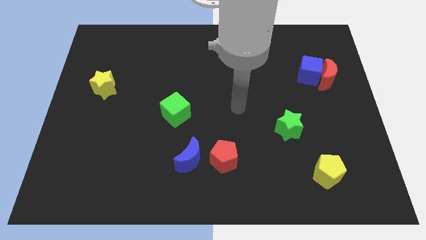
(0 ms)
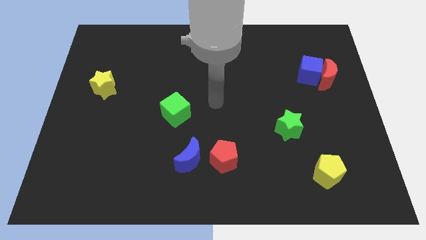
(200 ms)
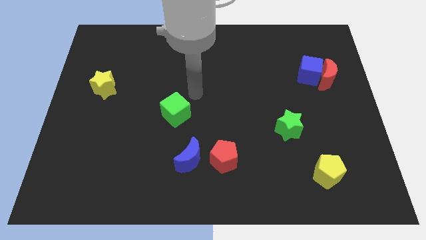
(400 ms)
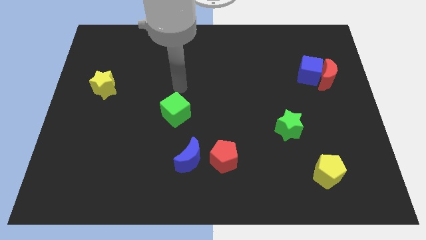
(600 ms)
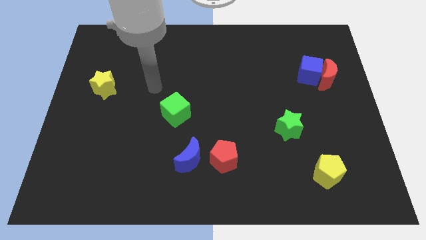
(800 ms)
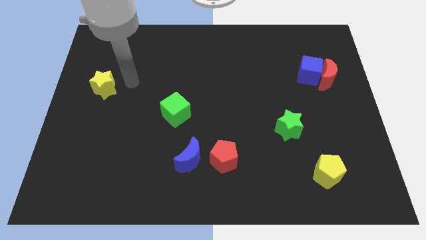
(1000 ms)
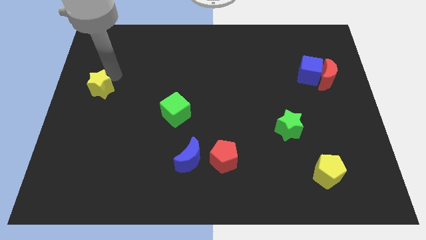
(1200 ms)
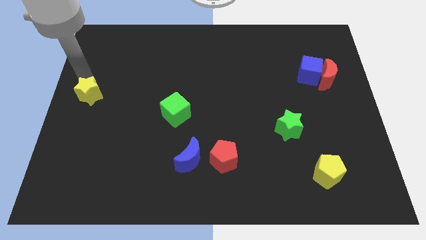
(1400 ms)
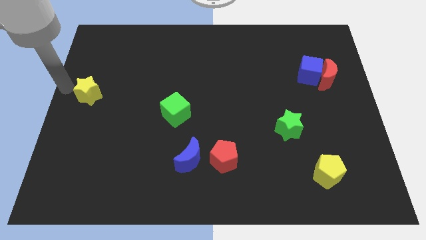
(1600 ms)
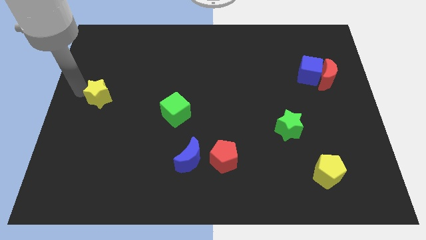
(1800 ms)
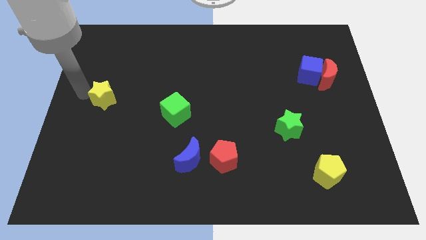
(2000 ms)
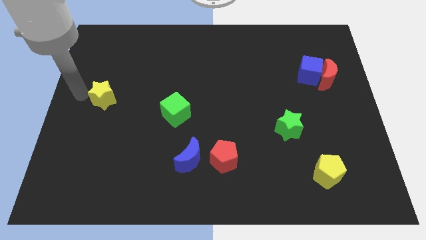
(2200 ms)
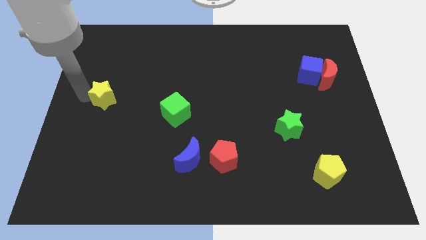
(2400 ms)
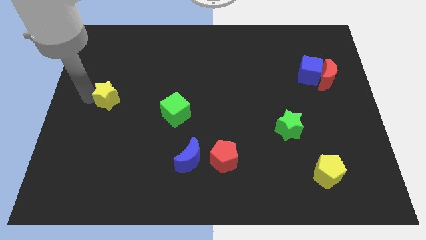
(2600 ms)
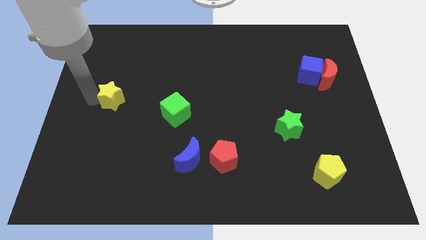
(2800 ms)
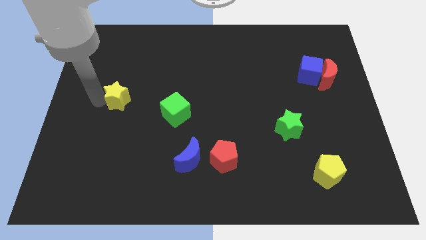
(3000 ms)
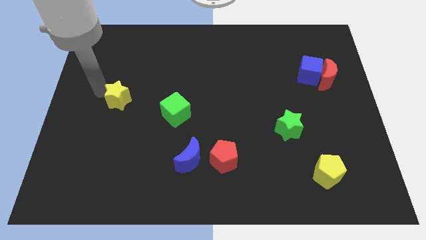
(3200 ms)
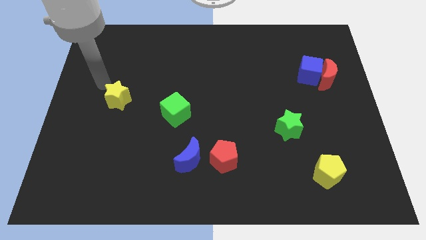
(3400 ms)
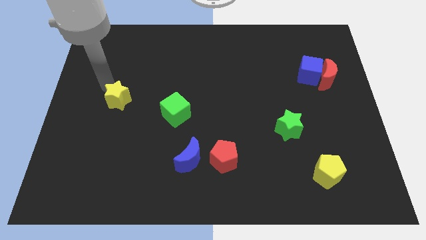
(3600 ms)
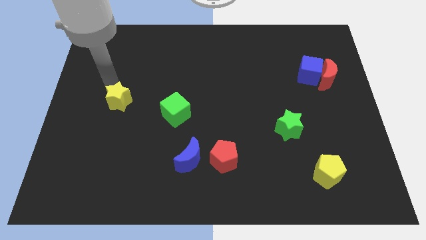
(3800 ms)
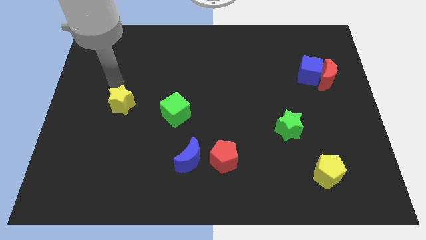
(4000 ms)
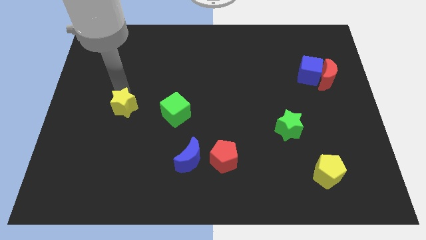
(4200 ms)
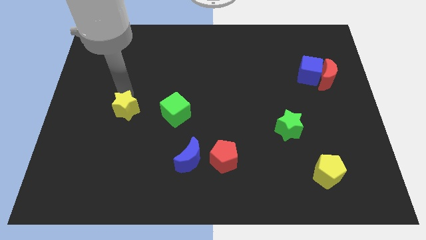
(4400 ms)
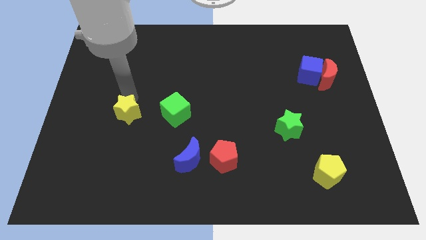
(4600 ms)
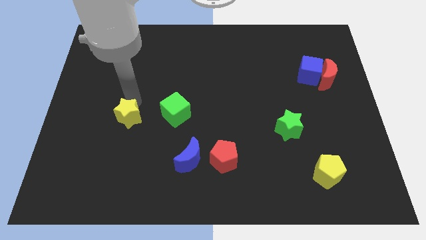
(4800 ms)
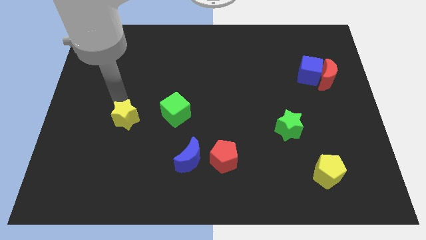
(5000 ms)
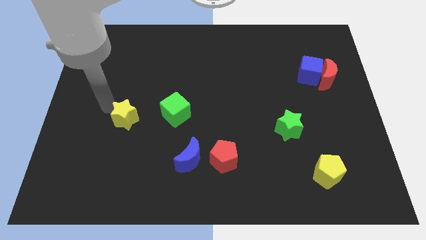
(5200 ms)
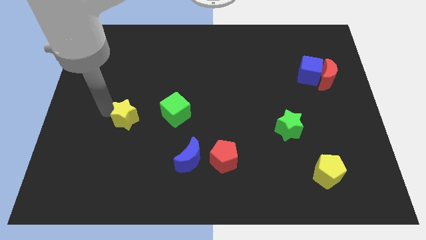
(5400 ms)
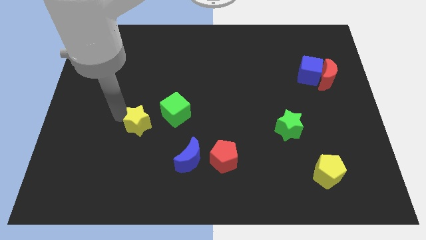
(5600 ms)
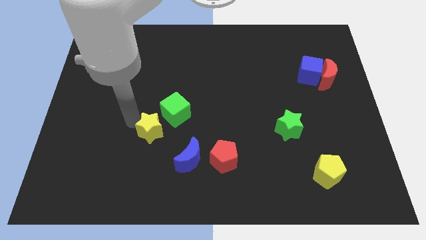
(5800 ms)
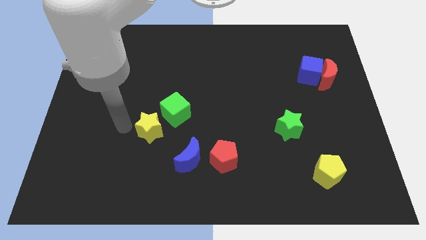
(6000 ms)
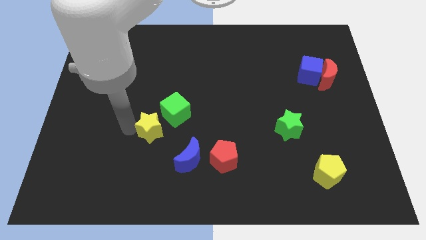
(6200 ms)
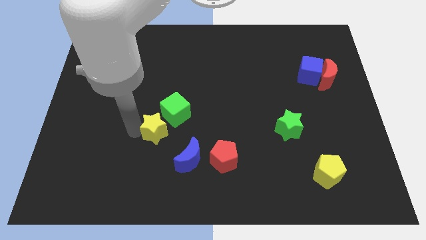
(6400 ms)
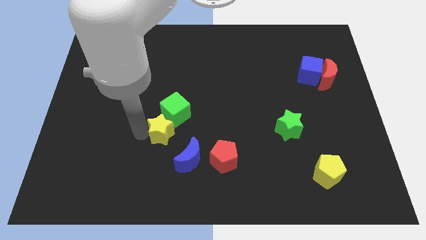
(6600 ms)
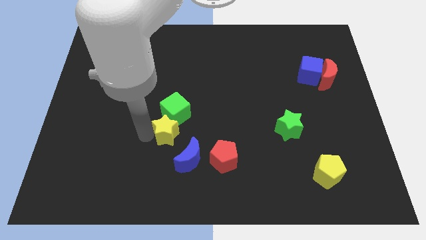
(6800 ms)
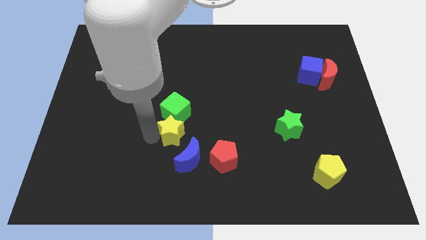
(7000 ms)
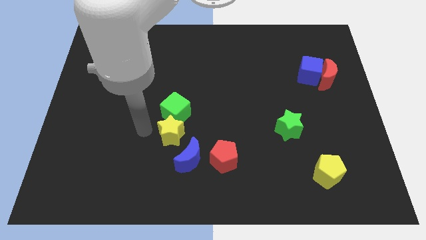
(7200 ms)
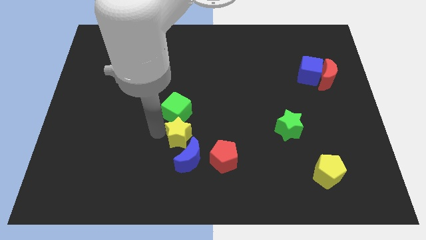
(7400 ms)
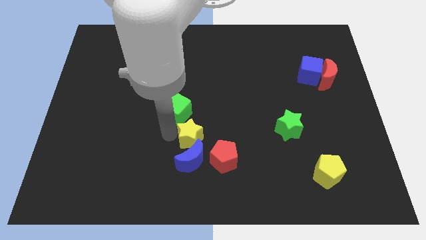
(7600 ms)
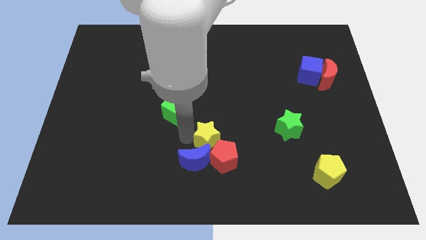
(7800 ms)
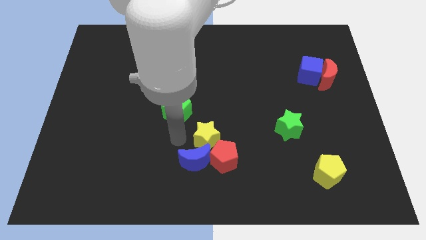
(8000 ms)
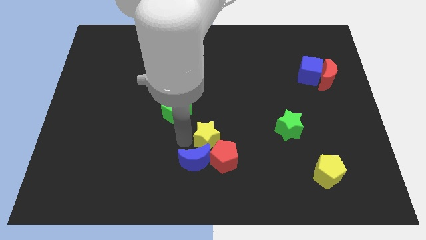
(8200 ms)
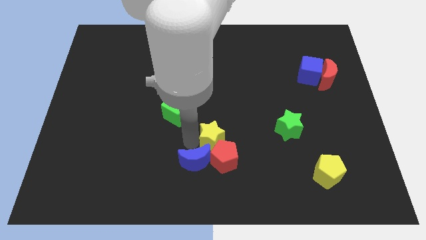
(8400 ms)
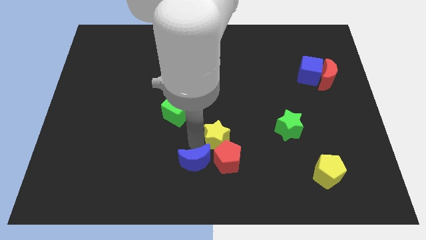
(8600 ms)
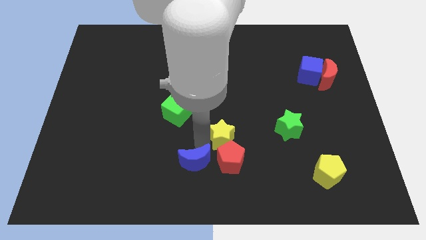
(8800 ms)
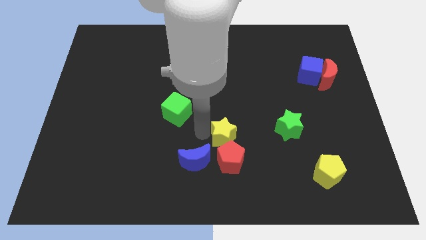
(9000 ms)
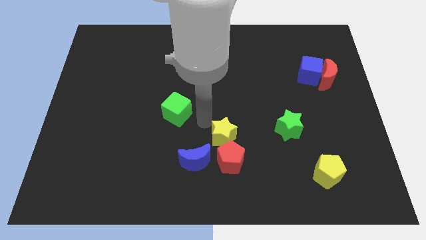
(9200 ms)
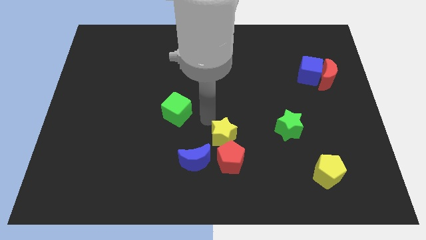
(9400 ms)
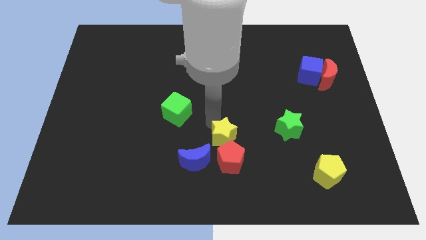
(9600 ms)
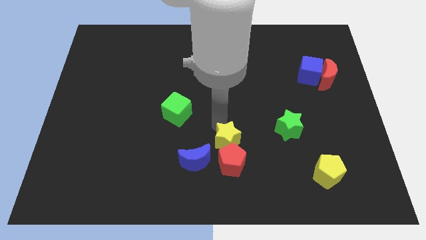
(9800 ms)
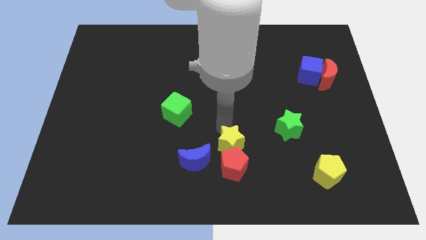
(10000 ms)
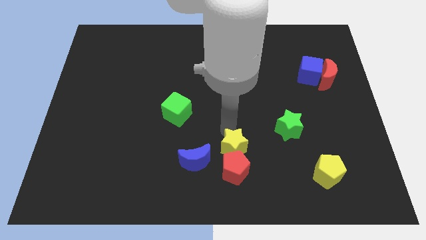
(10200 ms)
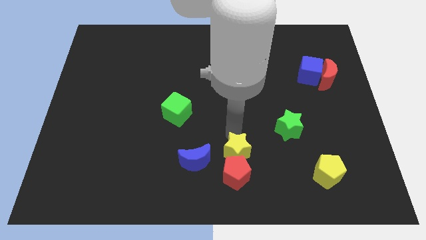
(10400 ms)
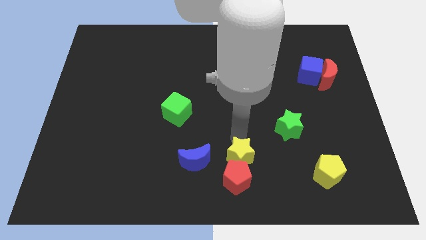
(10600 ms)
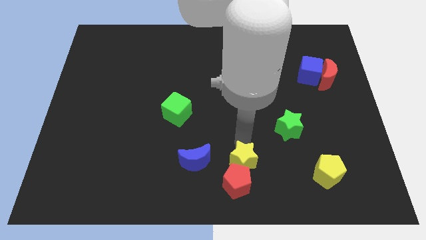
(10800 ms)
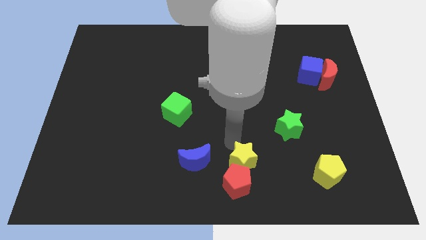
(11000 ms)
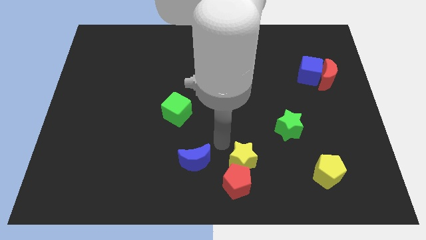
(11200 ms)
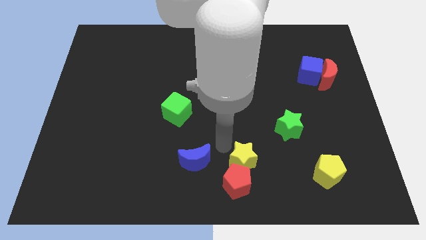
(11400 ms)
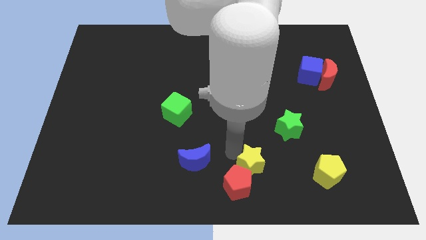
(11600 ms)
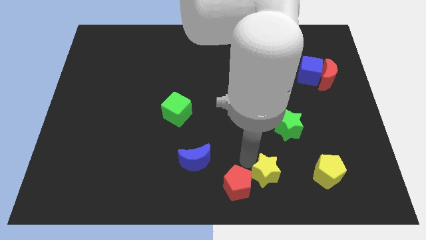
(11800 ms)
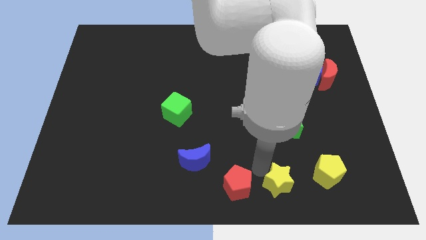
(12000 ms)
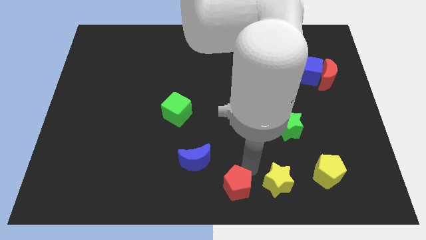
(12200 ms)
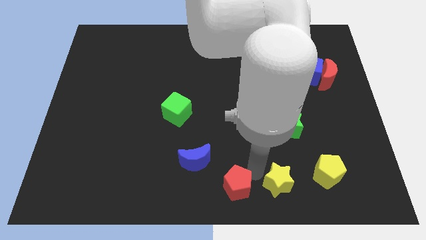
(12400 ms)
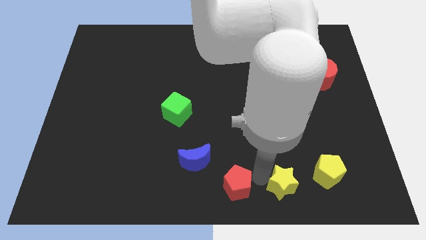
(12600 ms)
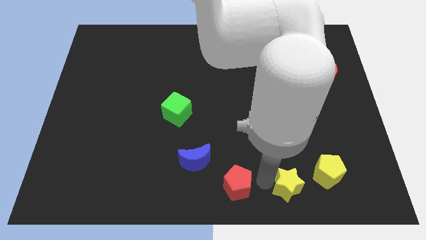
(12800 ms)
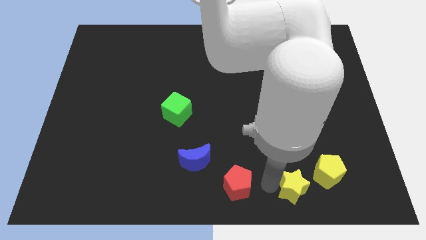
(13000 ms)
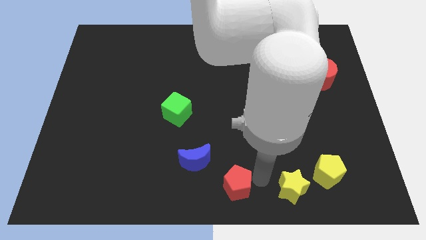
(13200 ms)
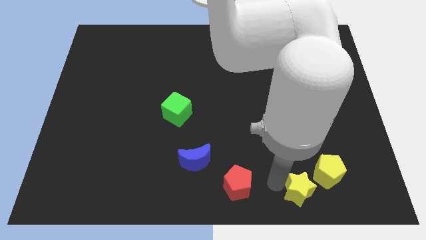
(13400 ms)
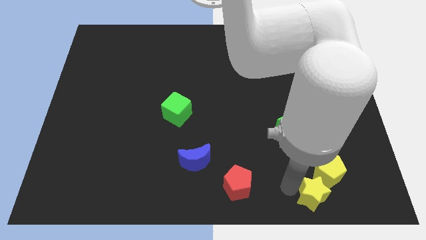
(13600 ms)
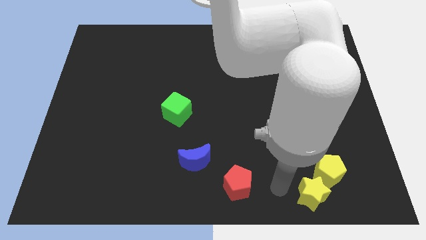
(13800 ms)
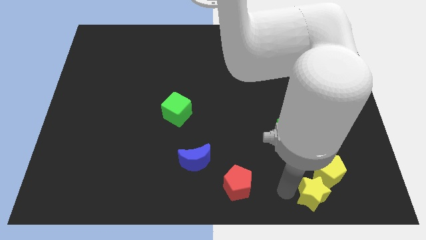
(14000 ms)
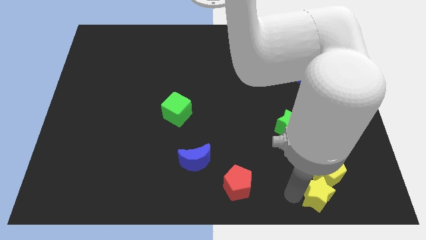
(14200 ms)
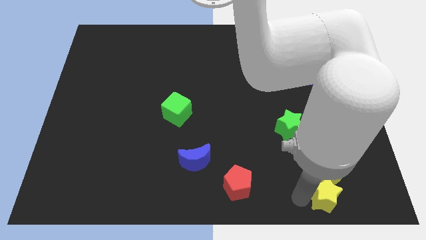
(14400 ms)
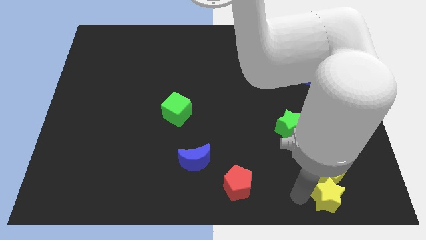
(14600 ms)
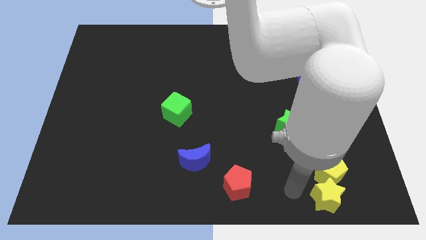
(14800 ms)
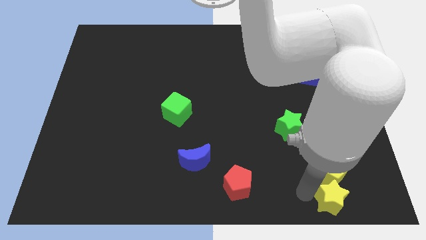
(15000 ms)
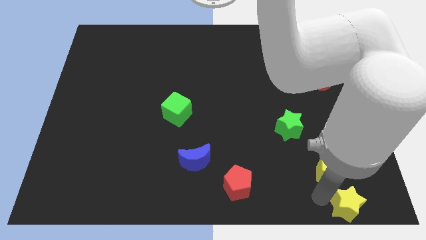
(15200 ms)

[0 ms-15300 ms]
move the yellow star to the bottom right
